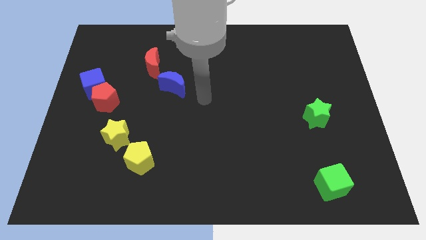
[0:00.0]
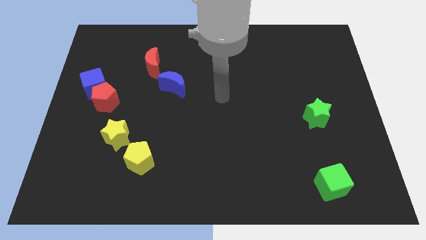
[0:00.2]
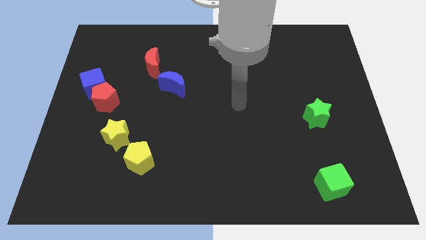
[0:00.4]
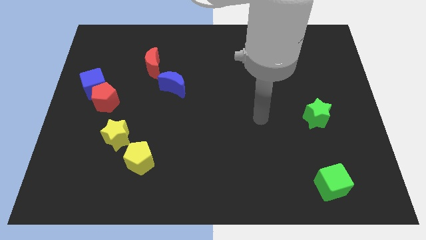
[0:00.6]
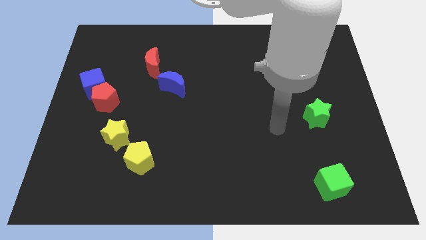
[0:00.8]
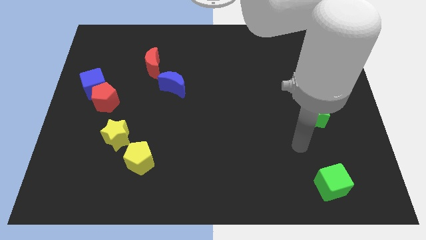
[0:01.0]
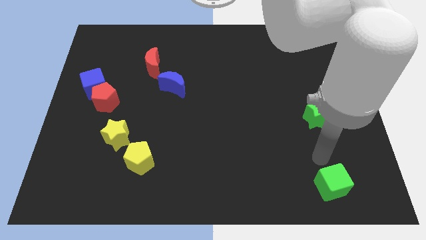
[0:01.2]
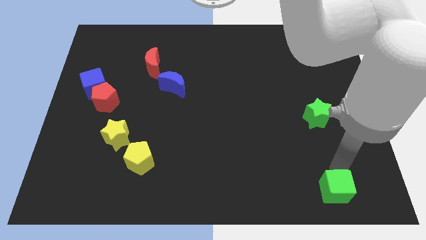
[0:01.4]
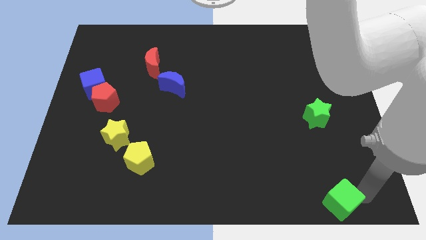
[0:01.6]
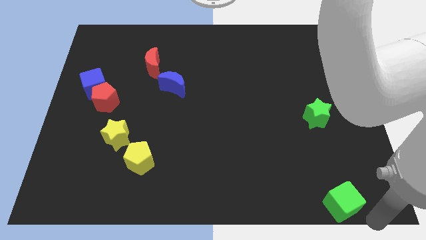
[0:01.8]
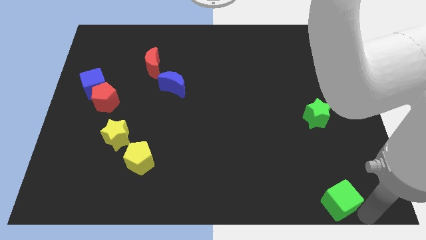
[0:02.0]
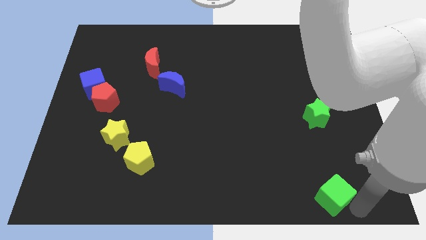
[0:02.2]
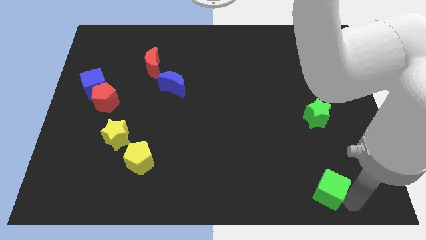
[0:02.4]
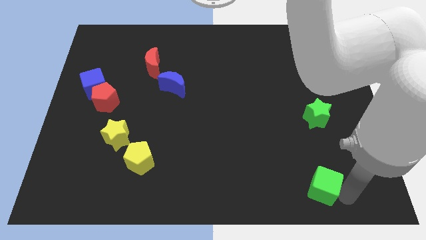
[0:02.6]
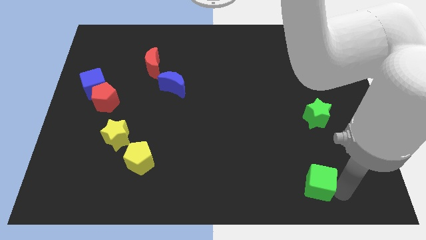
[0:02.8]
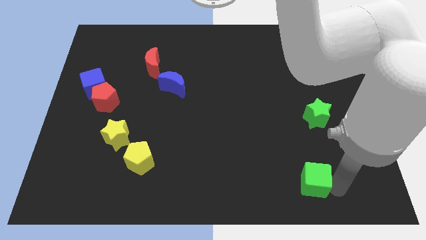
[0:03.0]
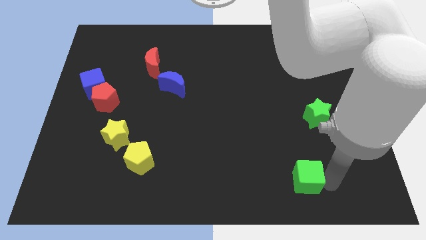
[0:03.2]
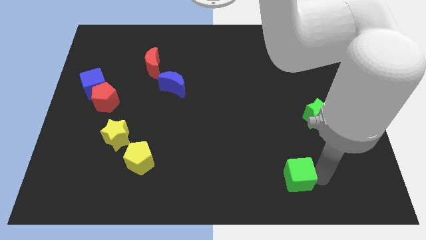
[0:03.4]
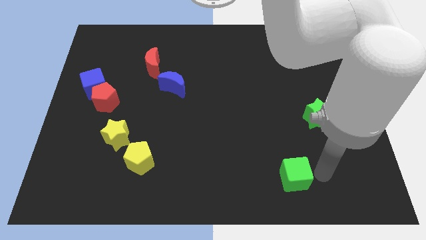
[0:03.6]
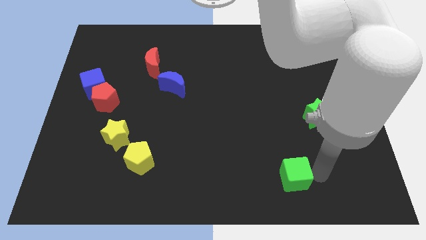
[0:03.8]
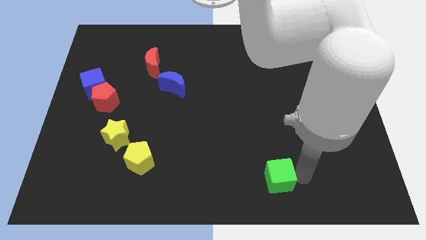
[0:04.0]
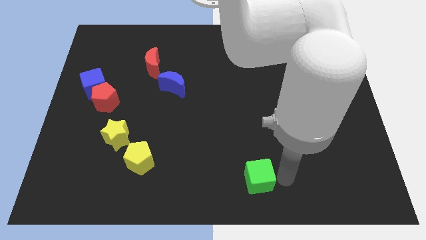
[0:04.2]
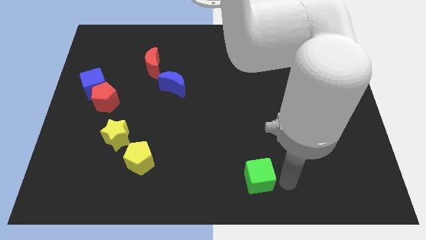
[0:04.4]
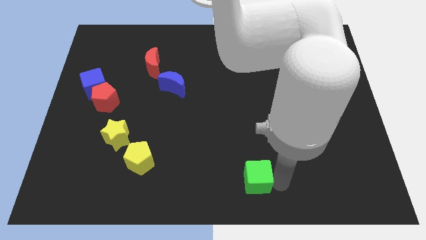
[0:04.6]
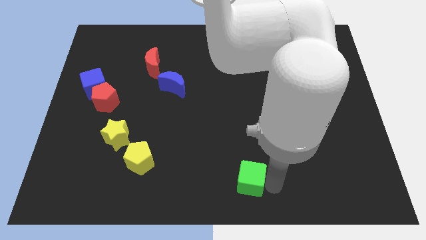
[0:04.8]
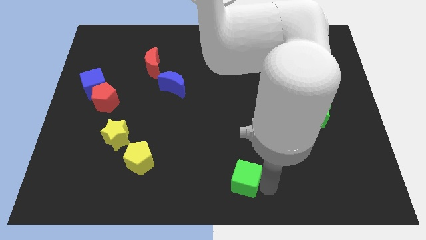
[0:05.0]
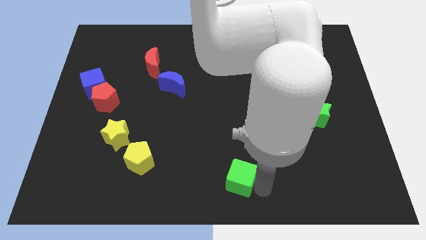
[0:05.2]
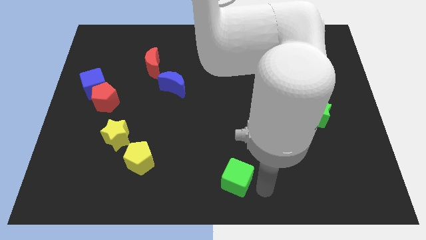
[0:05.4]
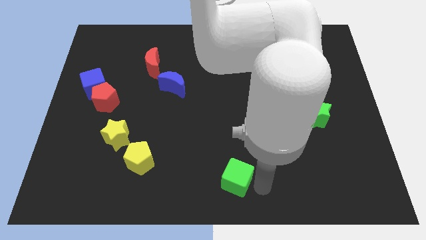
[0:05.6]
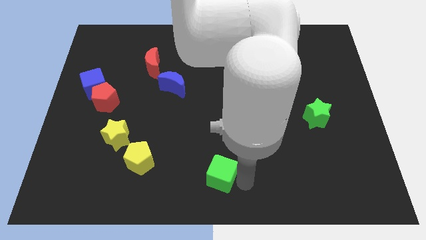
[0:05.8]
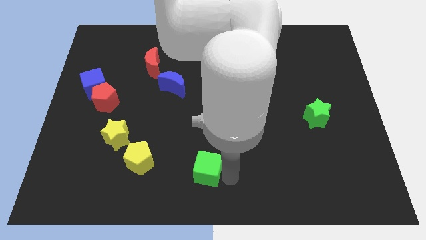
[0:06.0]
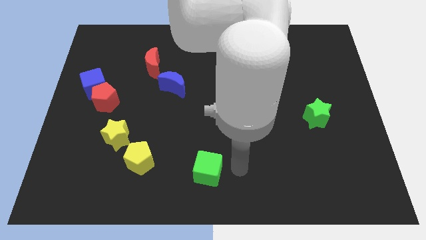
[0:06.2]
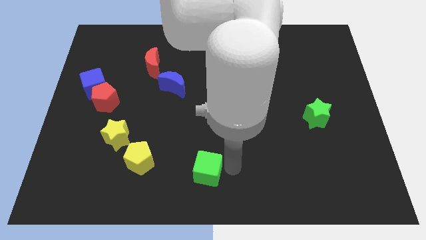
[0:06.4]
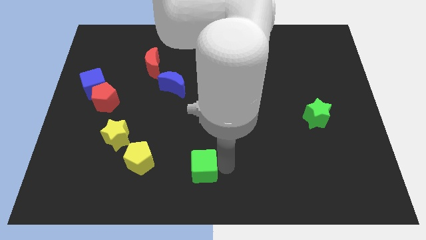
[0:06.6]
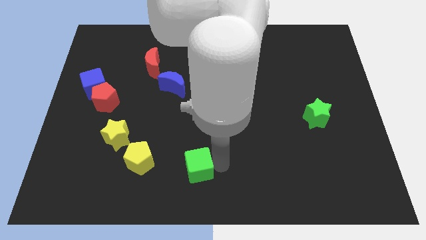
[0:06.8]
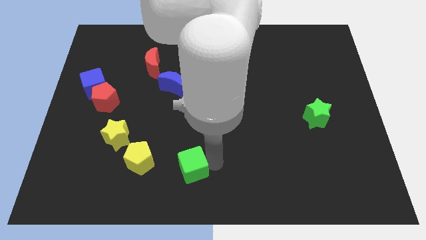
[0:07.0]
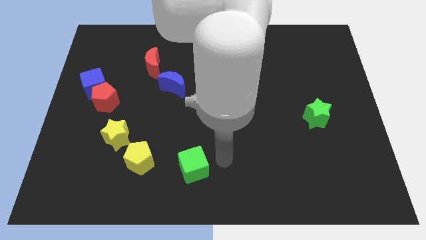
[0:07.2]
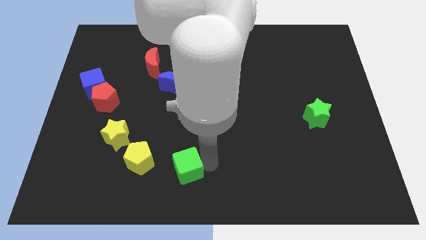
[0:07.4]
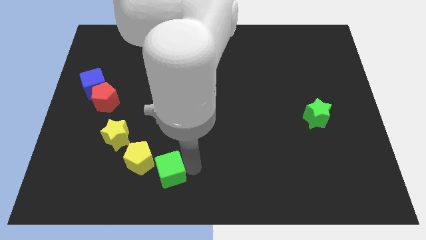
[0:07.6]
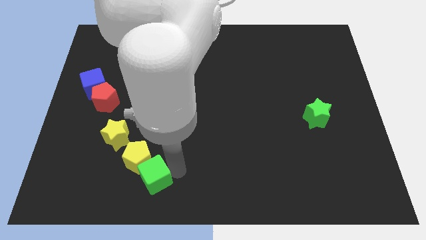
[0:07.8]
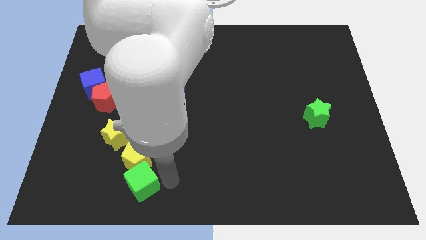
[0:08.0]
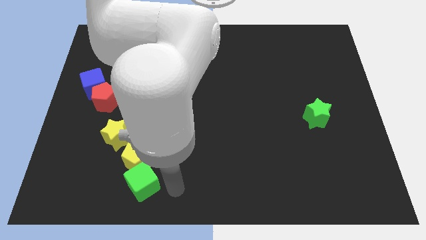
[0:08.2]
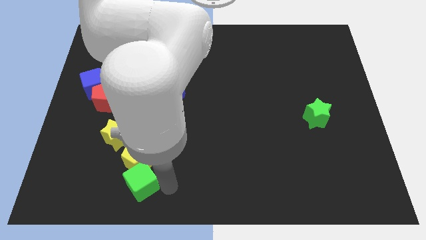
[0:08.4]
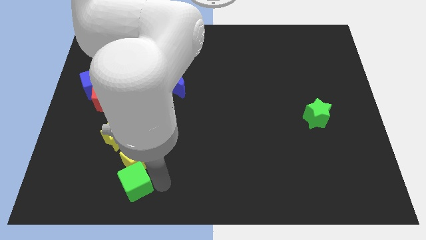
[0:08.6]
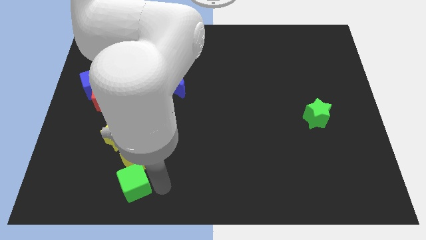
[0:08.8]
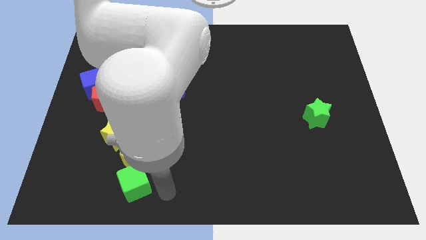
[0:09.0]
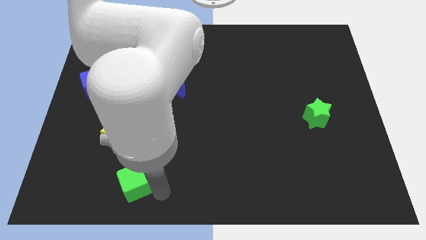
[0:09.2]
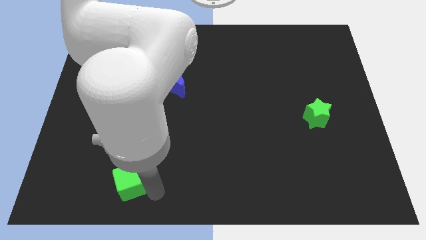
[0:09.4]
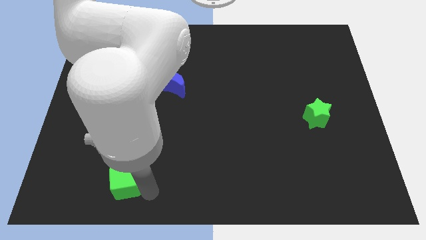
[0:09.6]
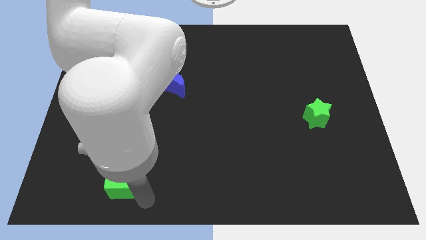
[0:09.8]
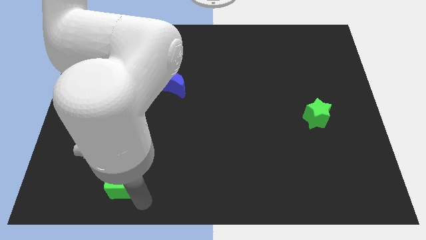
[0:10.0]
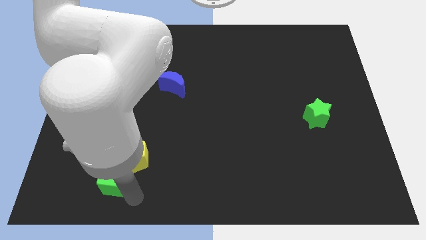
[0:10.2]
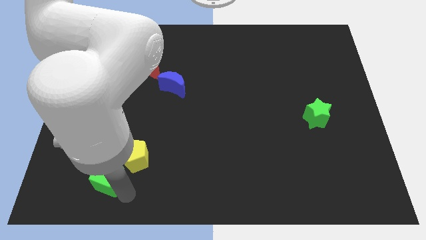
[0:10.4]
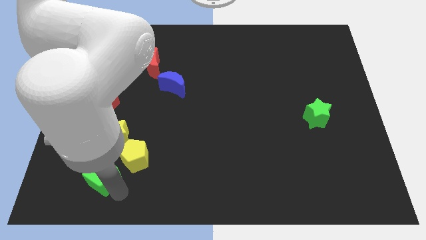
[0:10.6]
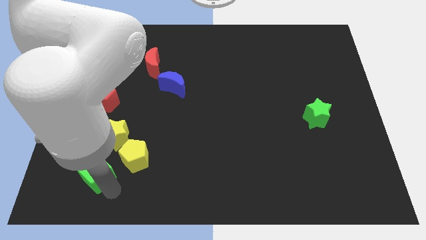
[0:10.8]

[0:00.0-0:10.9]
slide the green cube diagonally down and to the left of the yellow star
